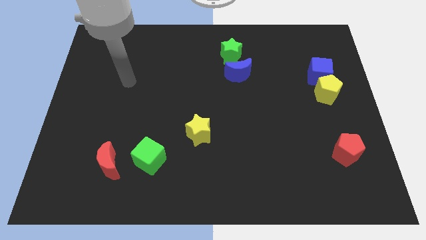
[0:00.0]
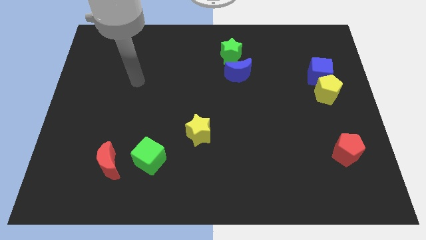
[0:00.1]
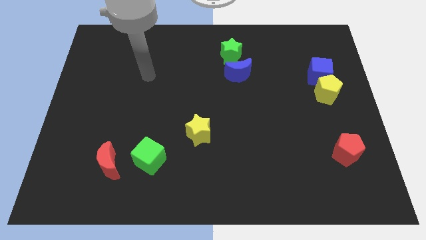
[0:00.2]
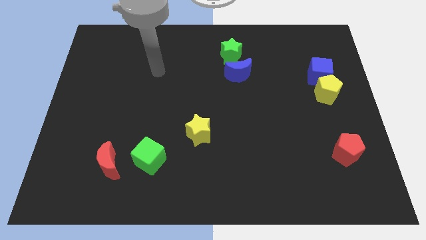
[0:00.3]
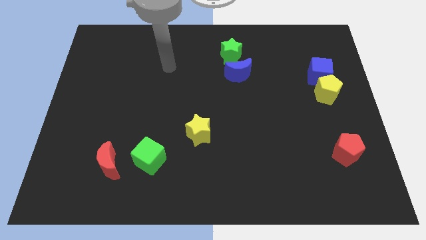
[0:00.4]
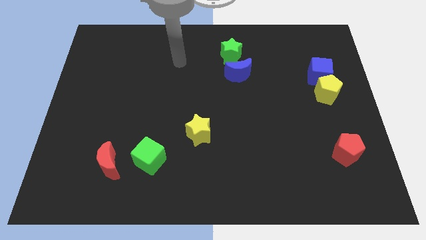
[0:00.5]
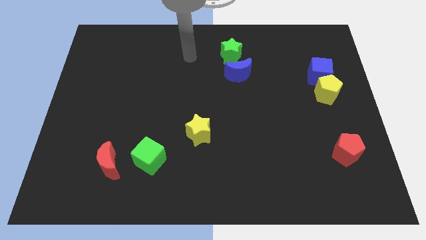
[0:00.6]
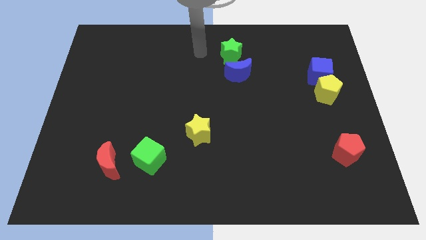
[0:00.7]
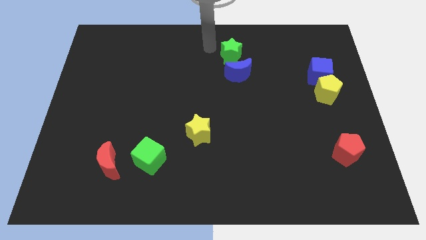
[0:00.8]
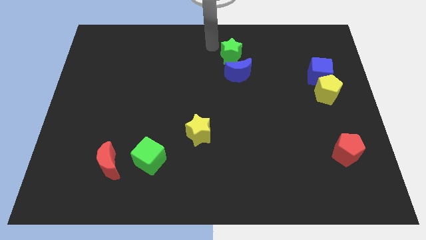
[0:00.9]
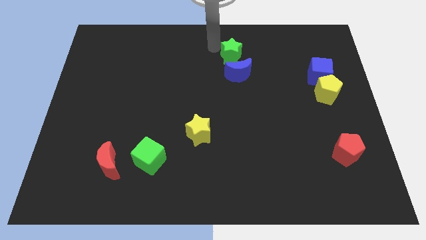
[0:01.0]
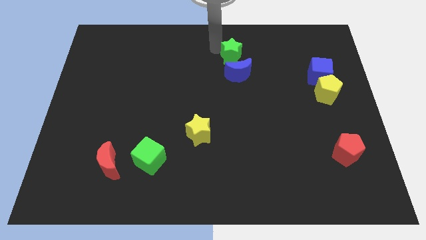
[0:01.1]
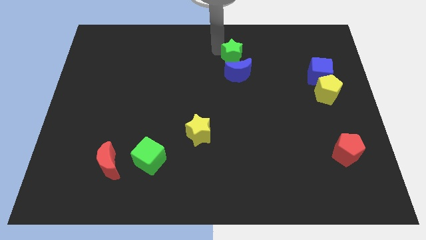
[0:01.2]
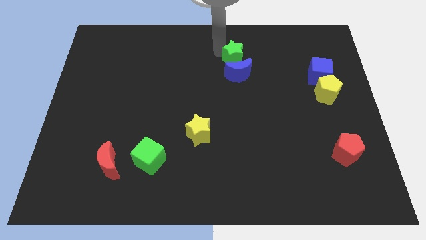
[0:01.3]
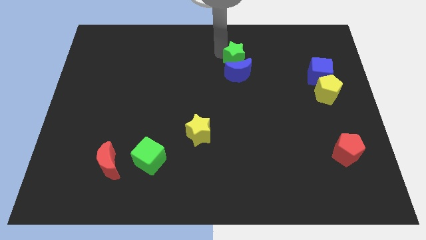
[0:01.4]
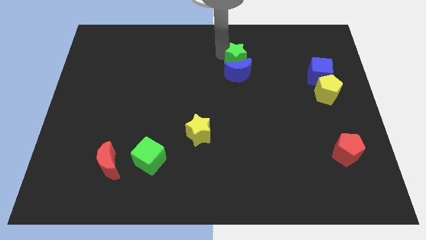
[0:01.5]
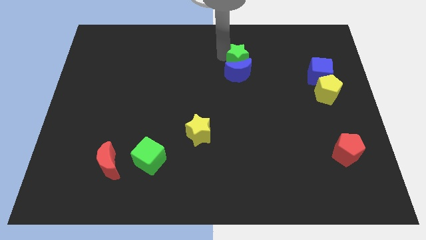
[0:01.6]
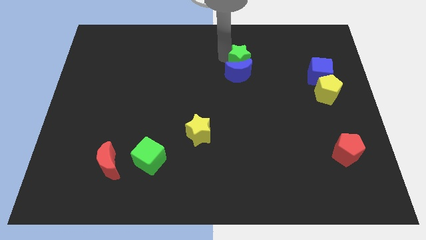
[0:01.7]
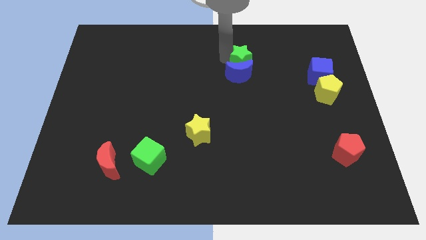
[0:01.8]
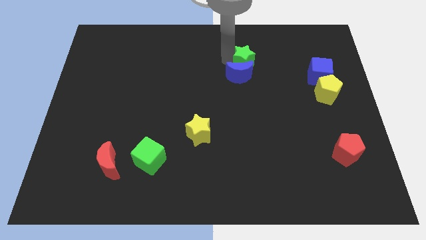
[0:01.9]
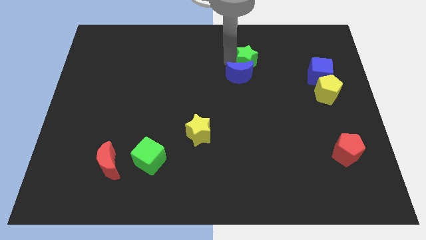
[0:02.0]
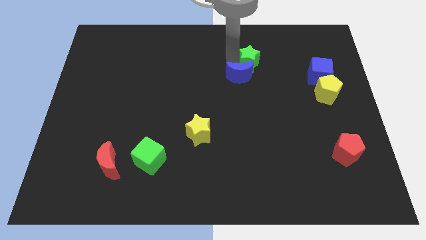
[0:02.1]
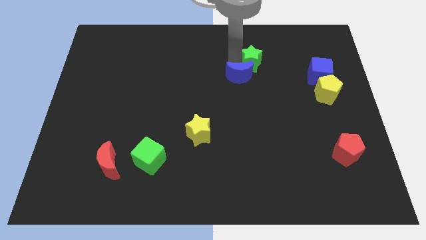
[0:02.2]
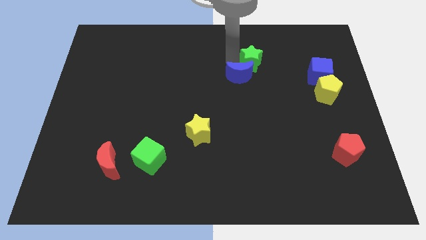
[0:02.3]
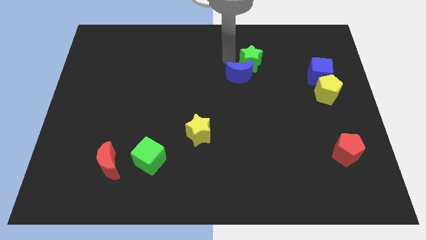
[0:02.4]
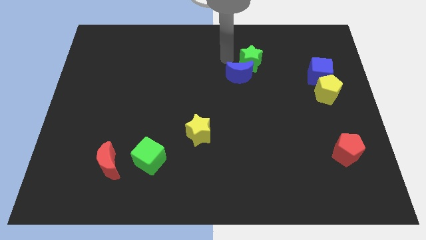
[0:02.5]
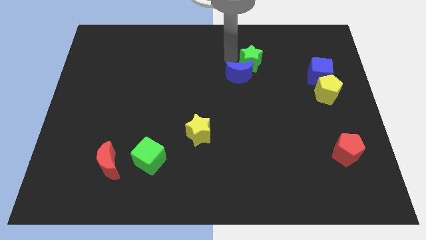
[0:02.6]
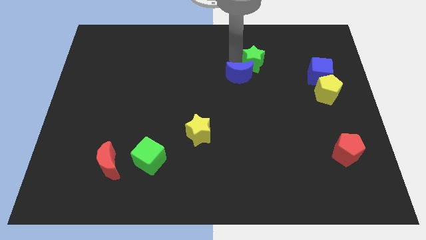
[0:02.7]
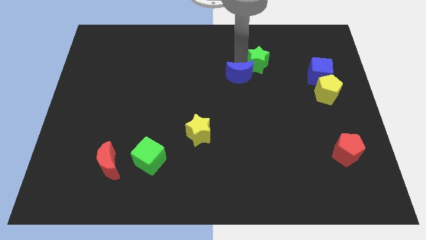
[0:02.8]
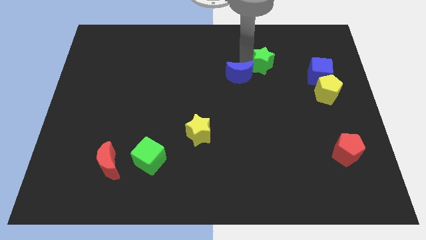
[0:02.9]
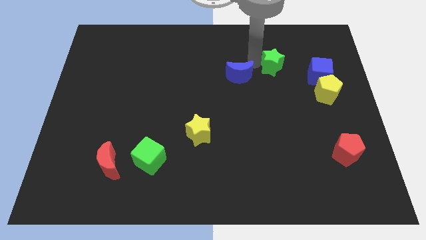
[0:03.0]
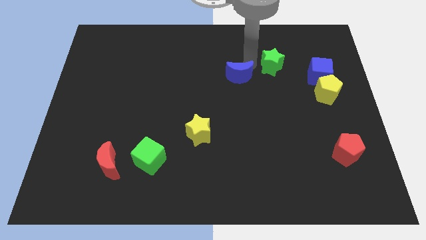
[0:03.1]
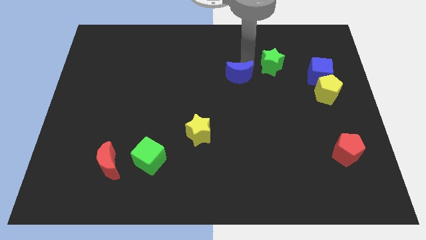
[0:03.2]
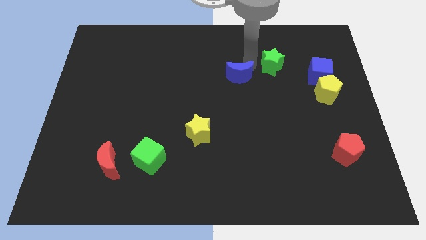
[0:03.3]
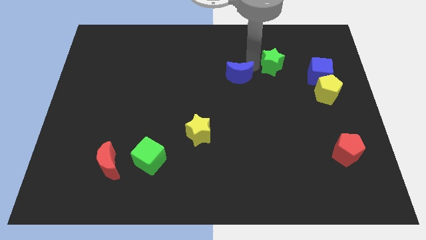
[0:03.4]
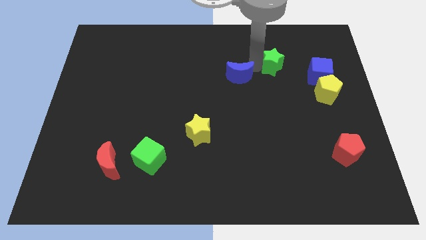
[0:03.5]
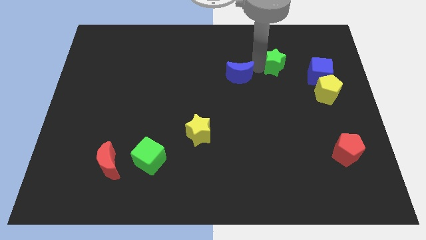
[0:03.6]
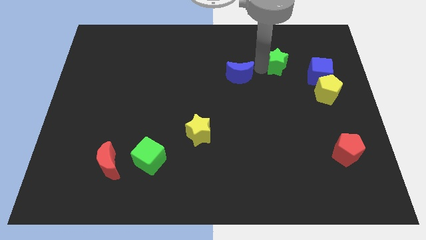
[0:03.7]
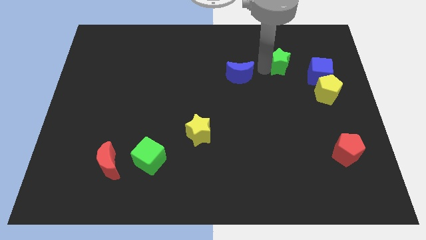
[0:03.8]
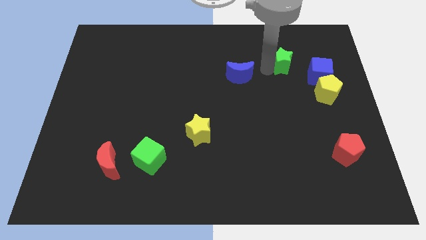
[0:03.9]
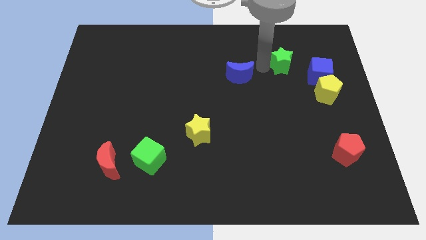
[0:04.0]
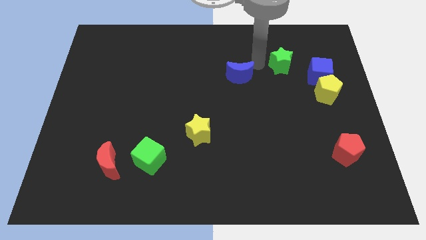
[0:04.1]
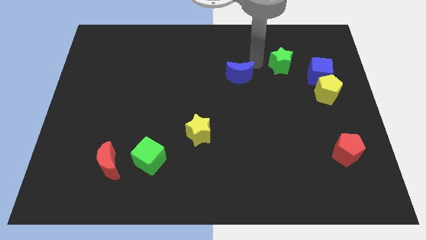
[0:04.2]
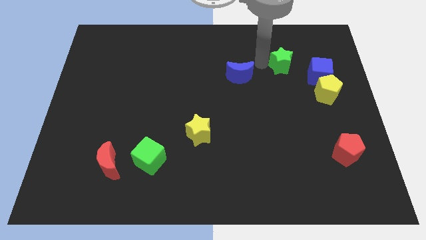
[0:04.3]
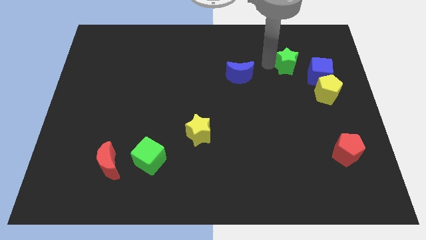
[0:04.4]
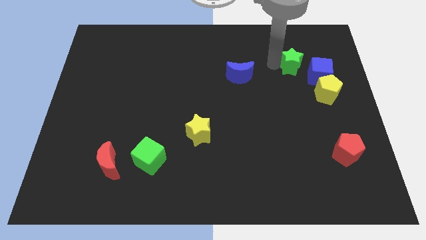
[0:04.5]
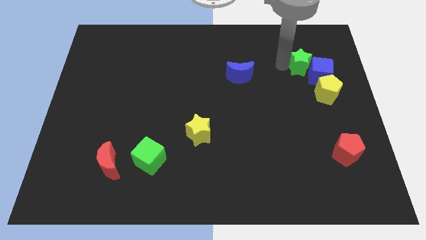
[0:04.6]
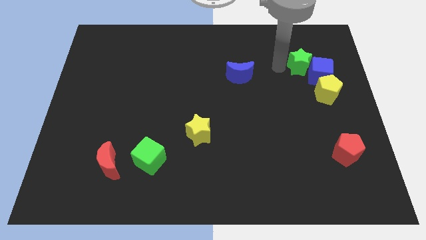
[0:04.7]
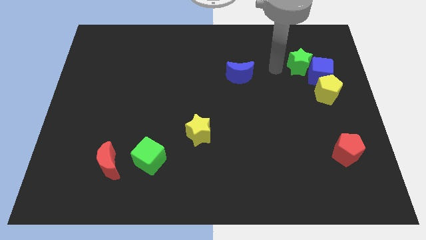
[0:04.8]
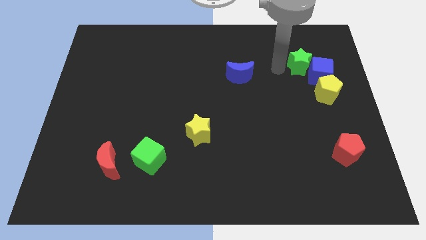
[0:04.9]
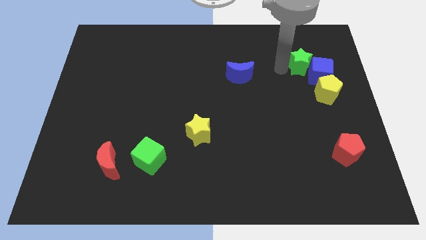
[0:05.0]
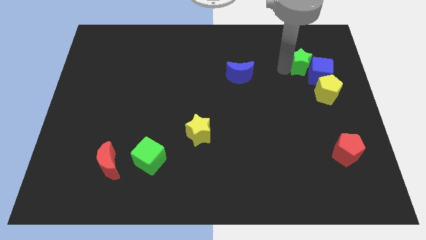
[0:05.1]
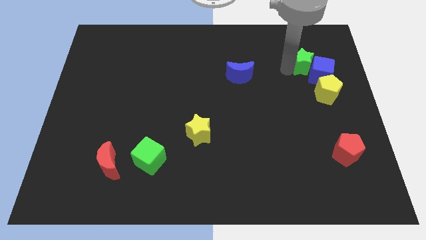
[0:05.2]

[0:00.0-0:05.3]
push the green star to the top side of the yellow pentagon
